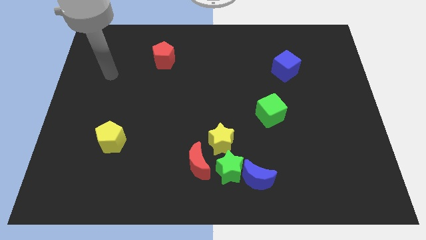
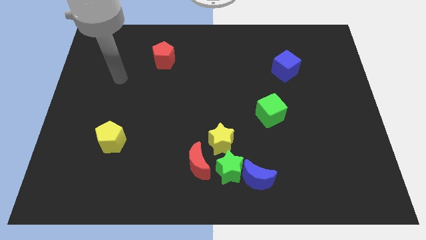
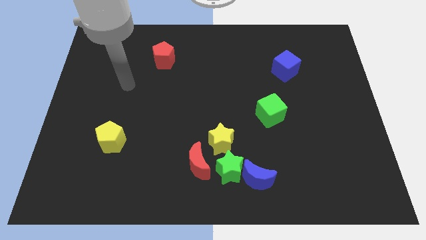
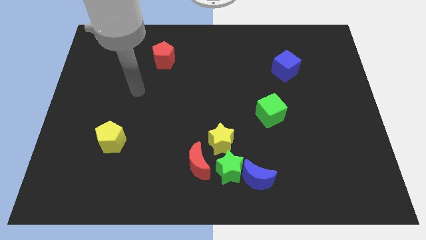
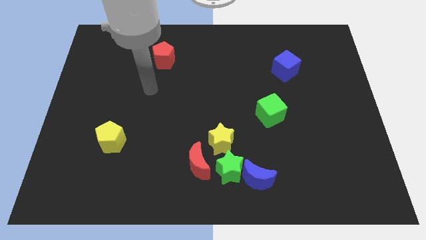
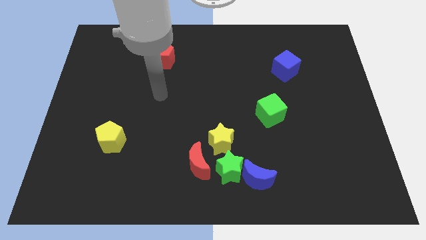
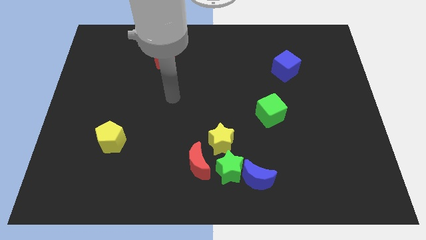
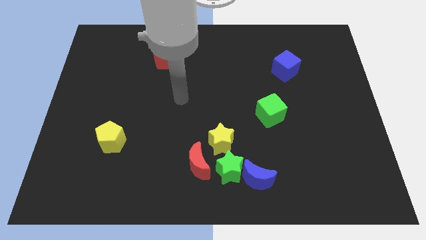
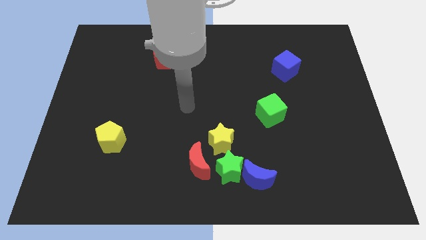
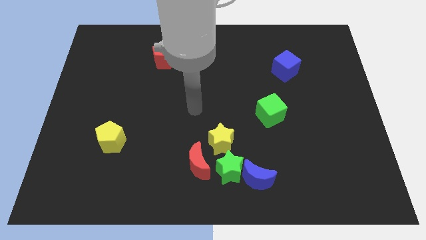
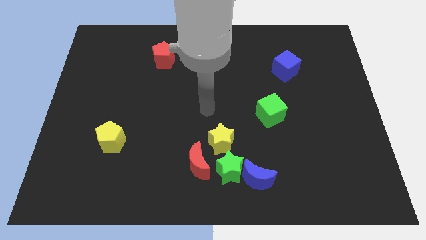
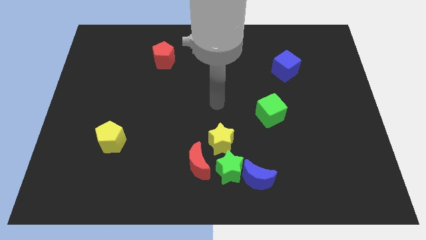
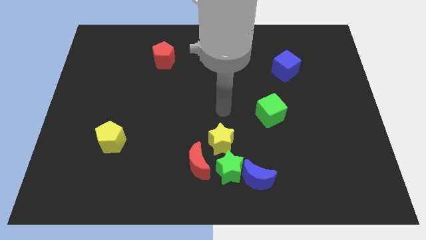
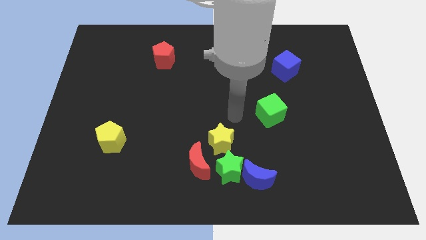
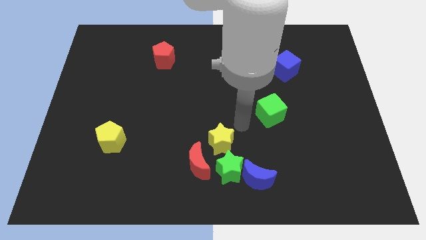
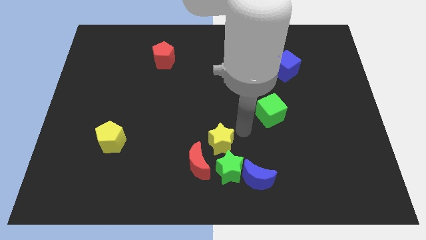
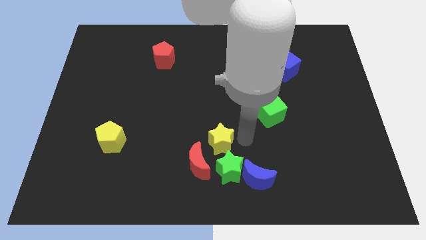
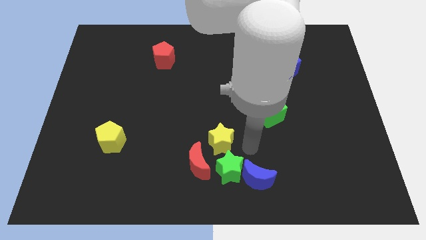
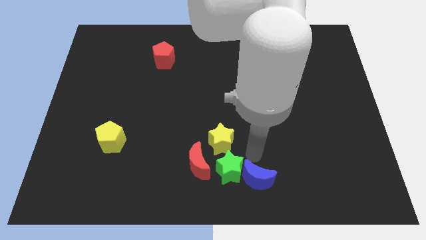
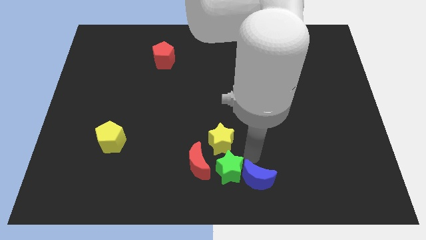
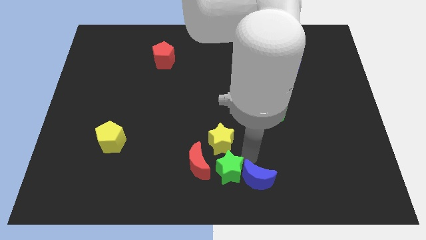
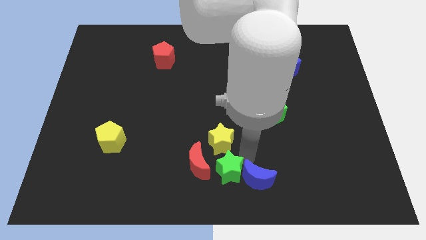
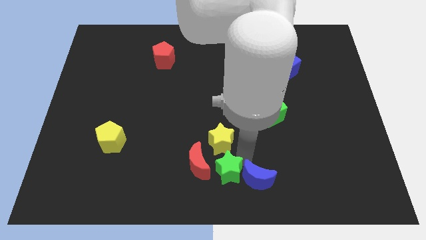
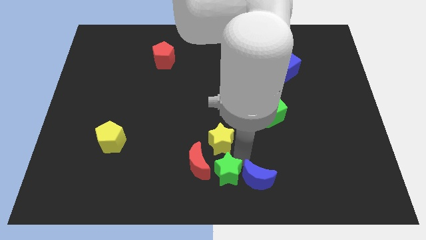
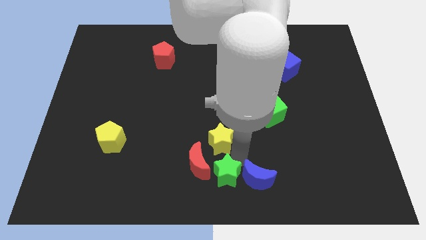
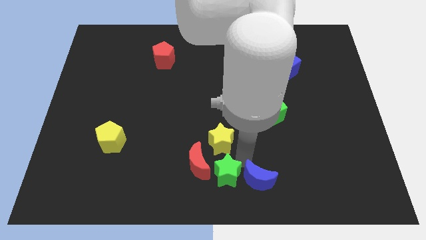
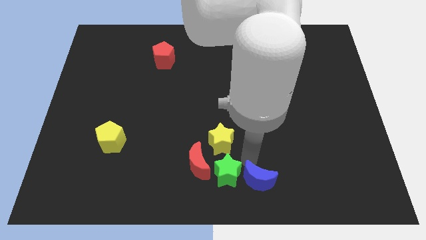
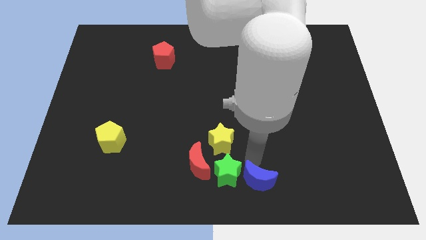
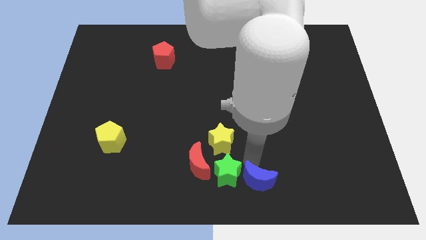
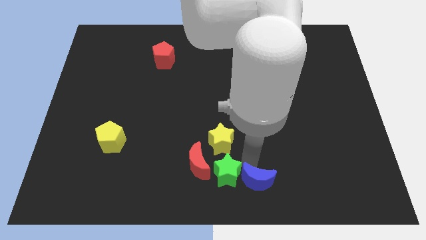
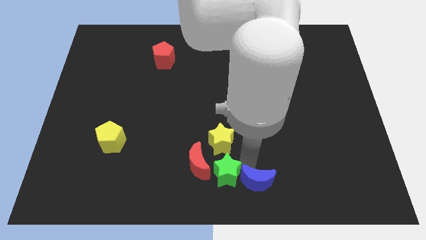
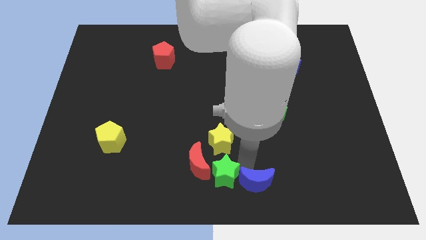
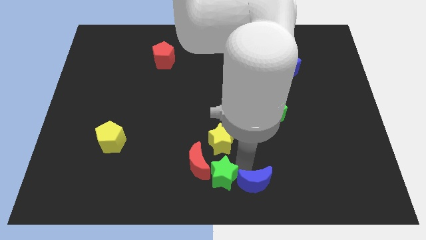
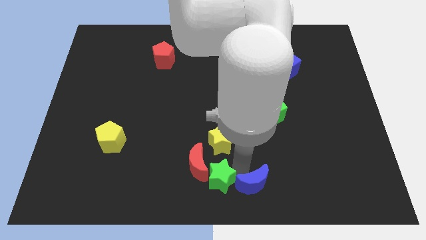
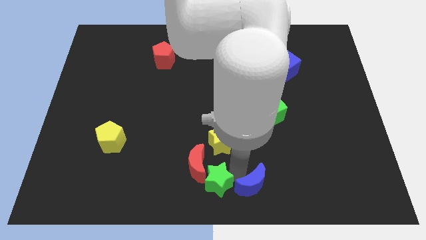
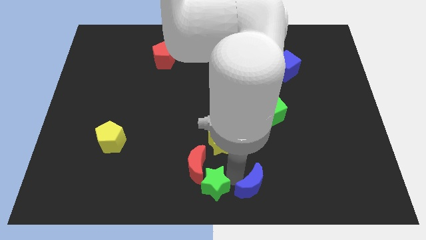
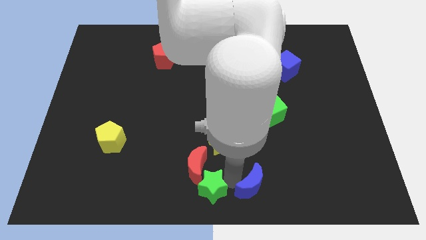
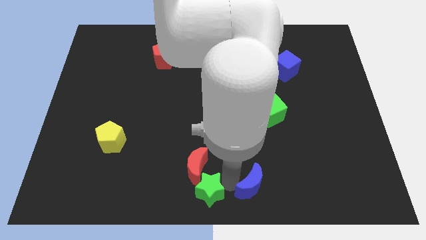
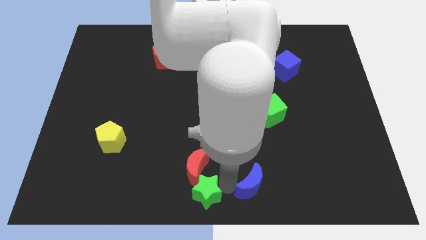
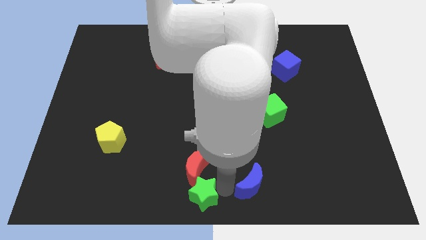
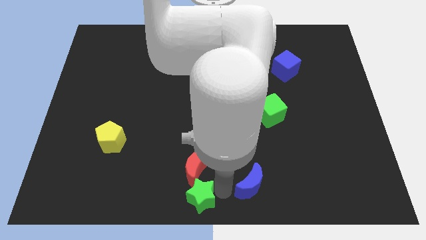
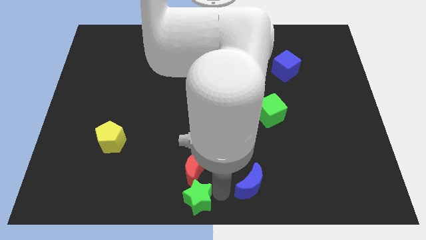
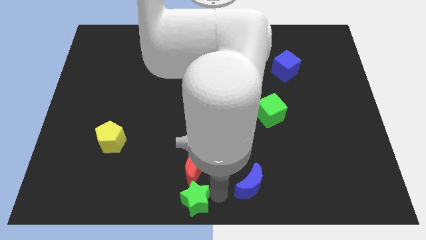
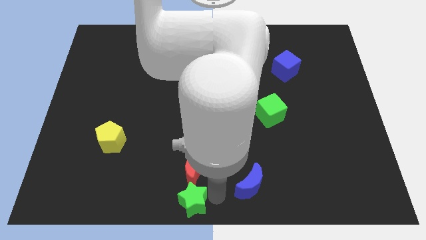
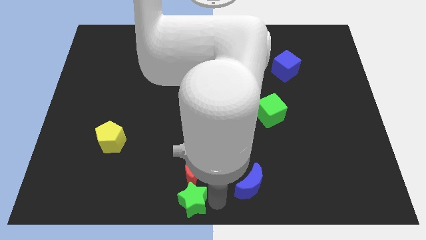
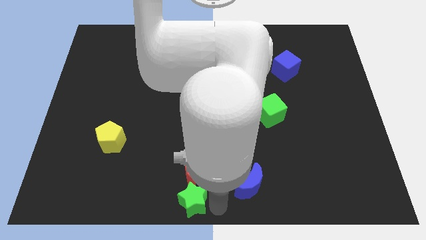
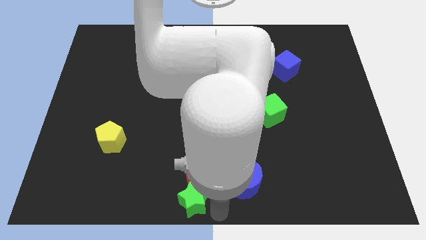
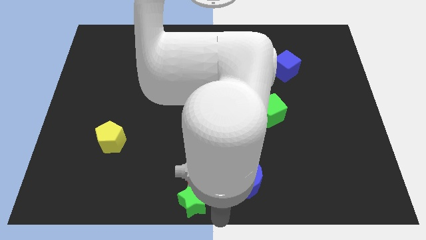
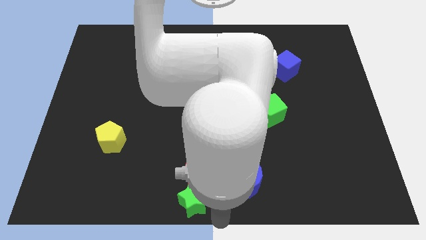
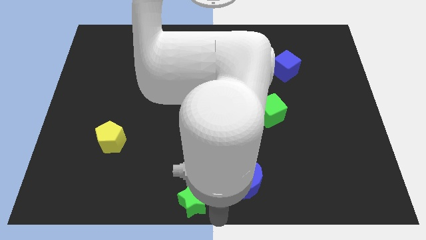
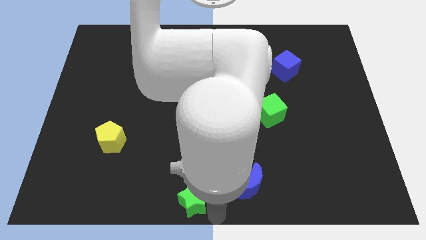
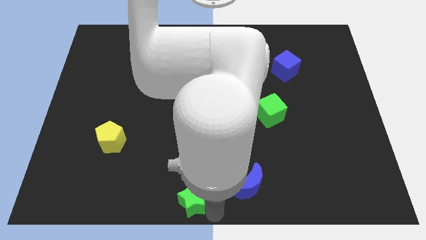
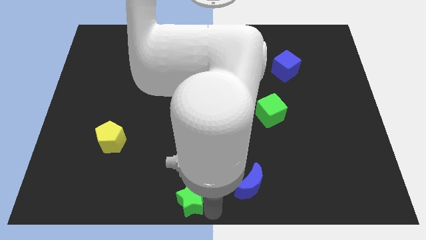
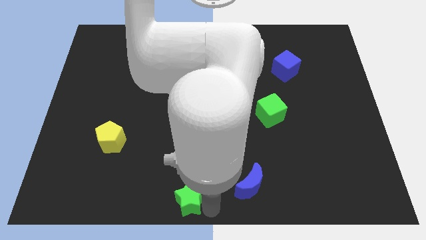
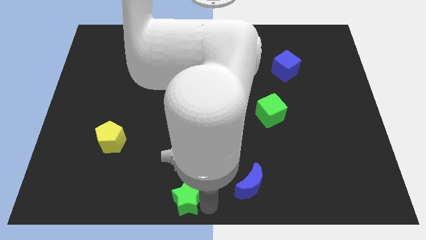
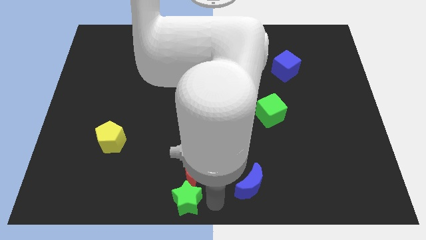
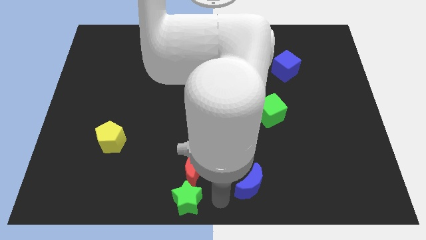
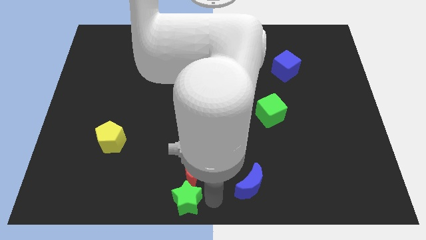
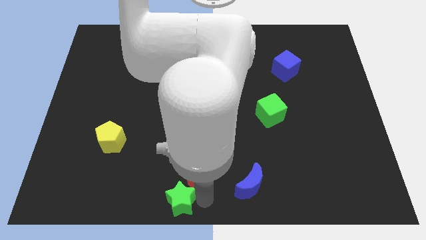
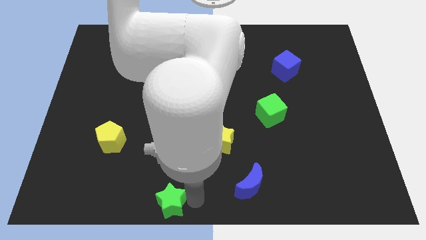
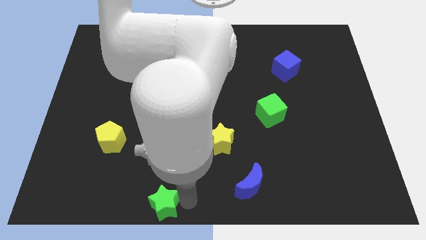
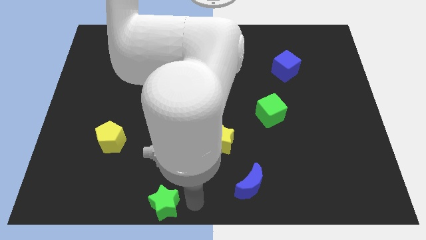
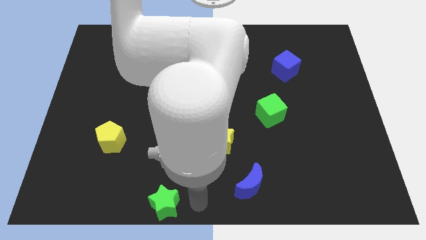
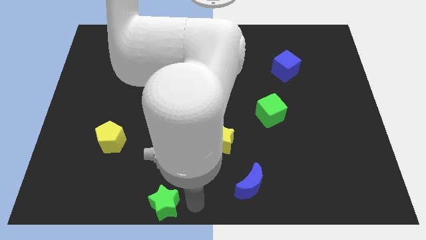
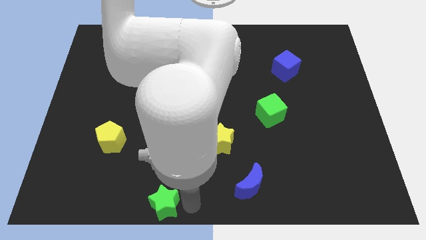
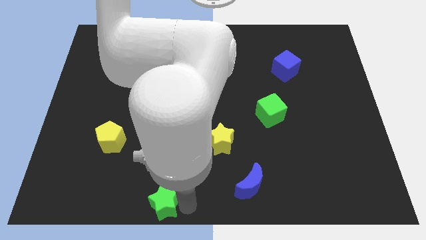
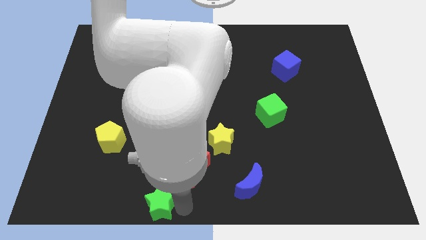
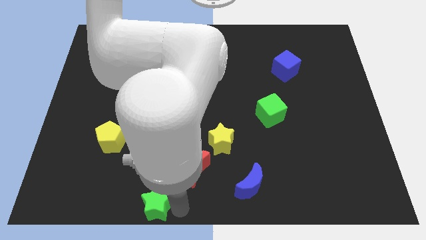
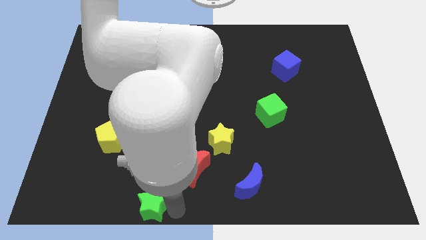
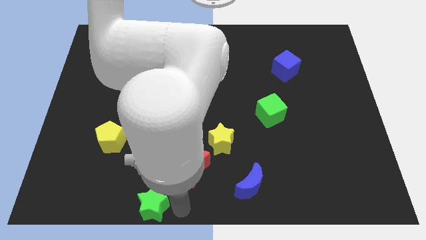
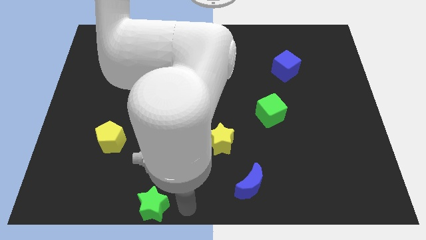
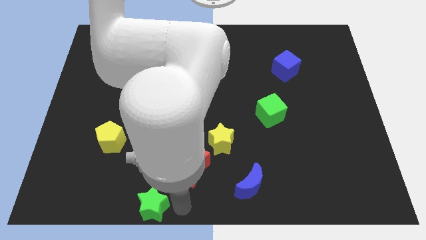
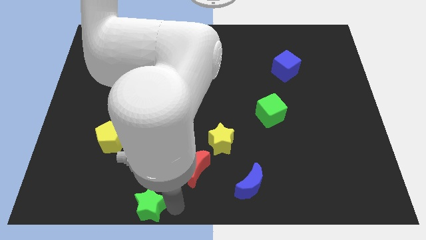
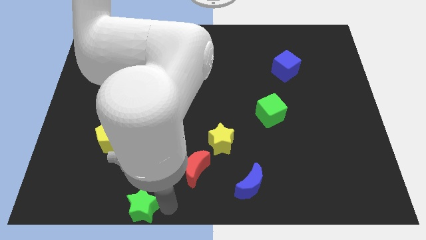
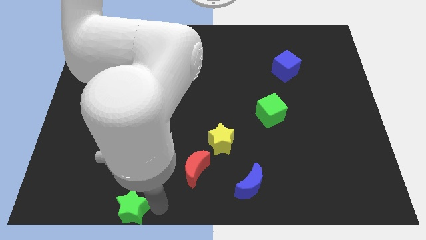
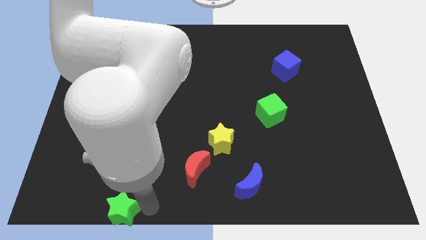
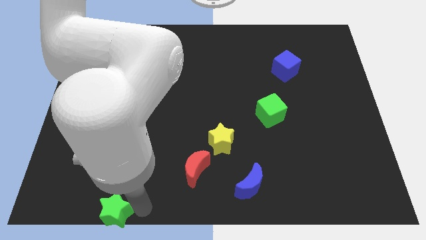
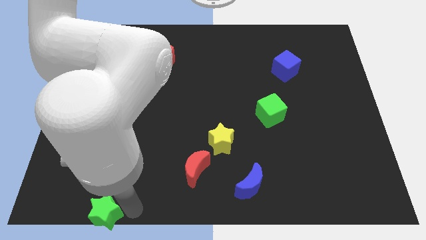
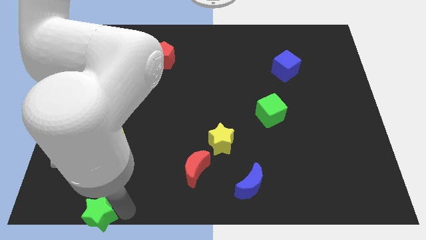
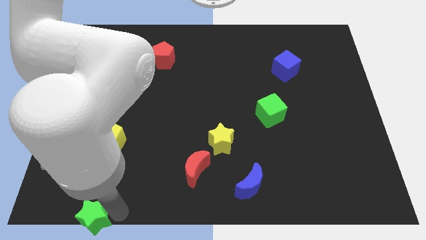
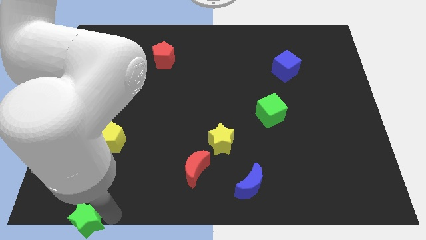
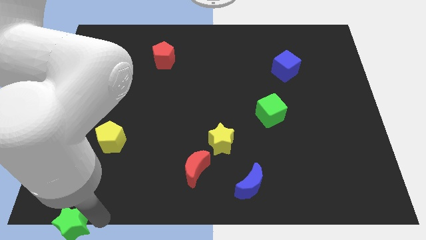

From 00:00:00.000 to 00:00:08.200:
put the green star to the bottom left corner
